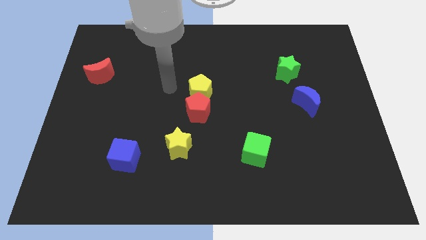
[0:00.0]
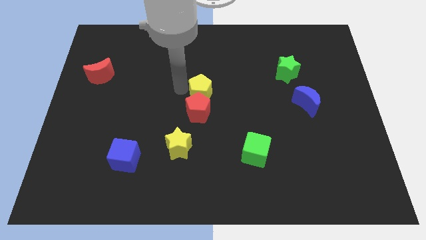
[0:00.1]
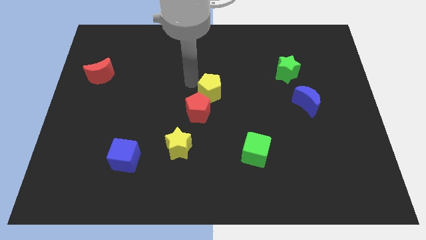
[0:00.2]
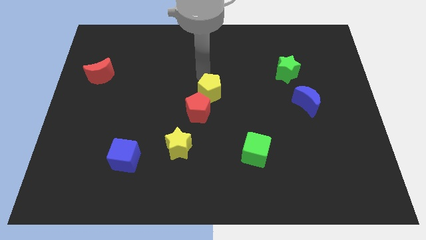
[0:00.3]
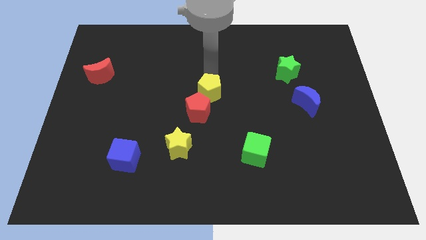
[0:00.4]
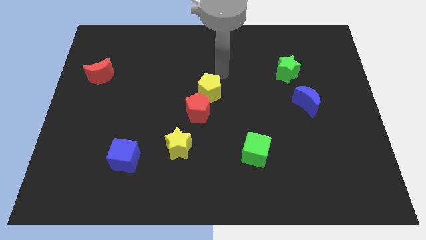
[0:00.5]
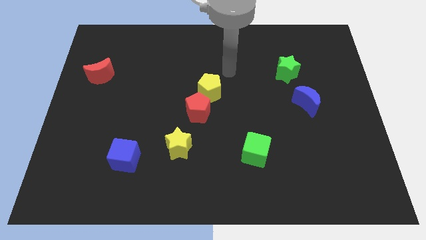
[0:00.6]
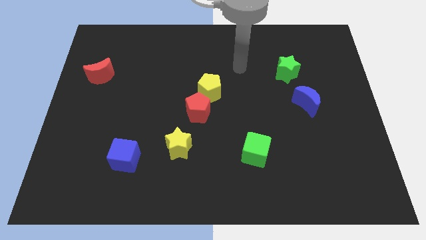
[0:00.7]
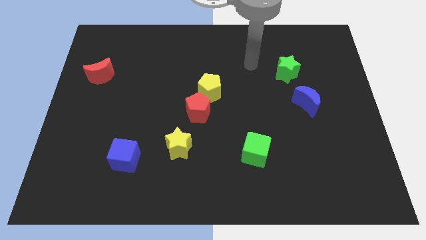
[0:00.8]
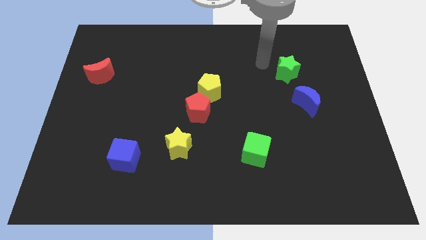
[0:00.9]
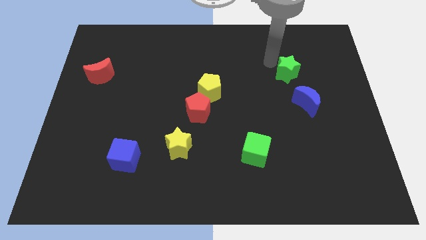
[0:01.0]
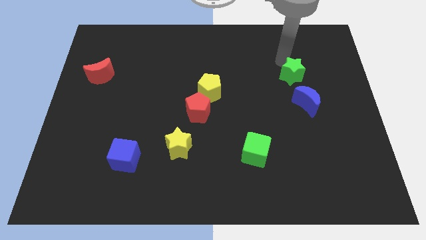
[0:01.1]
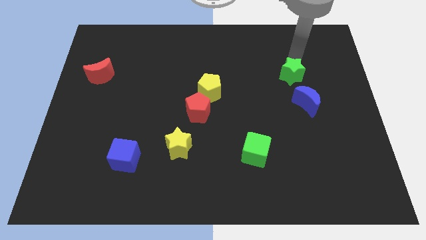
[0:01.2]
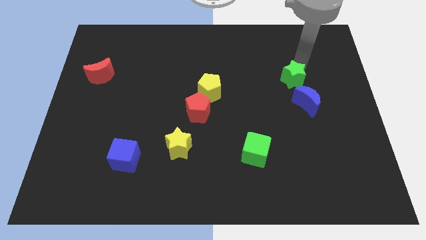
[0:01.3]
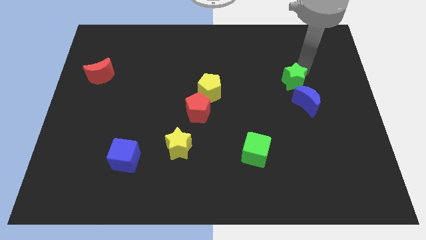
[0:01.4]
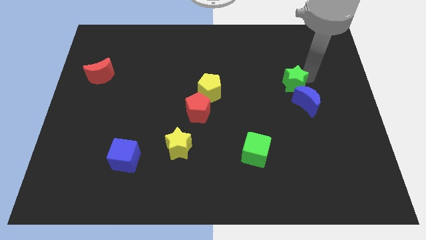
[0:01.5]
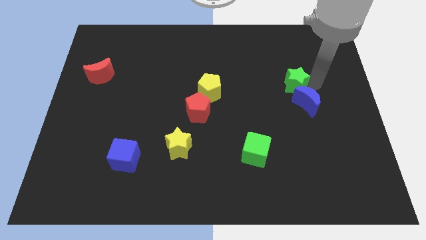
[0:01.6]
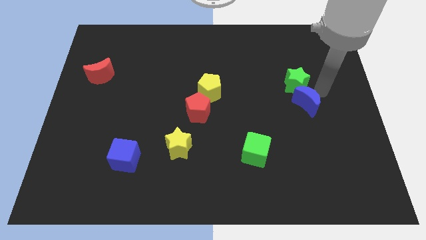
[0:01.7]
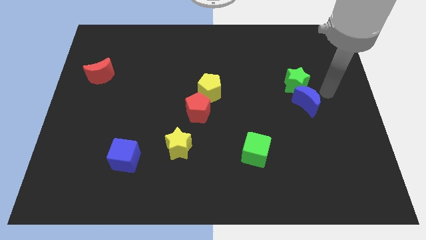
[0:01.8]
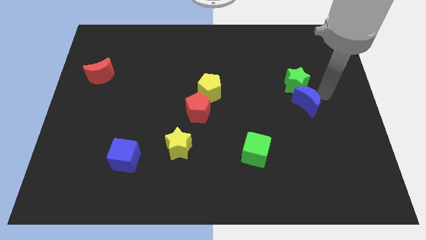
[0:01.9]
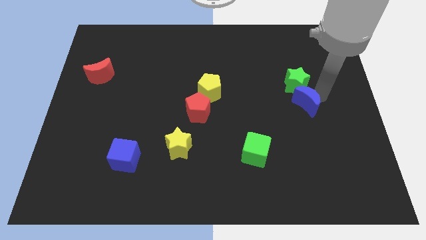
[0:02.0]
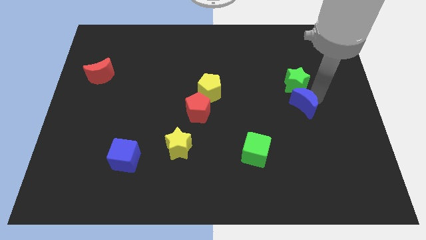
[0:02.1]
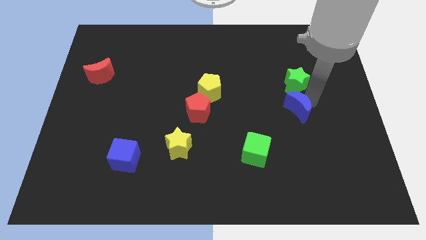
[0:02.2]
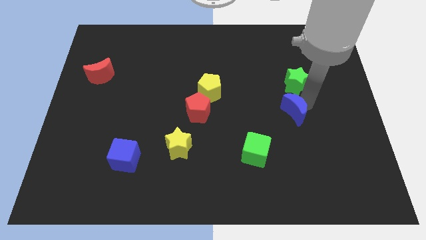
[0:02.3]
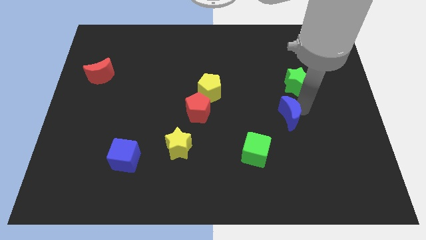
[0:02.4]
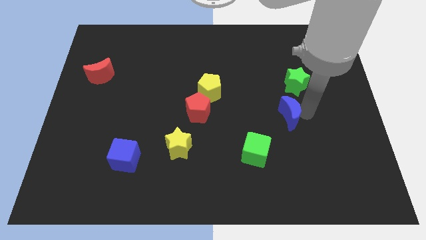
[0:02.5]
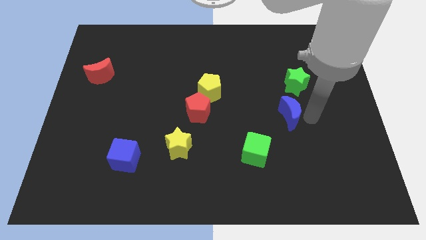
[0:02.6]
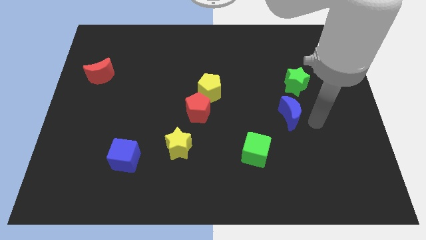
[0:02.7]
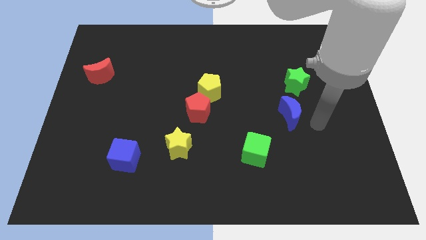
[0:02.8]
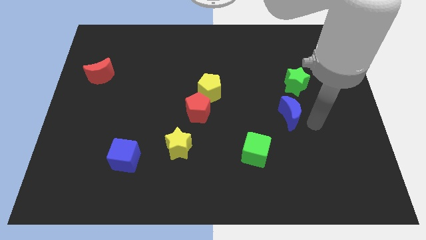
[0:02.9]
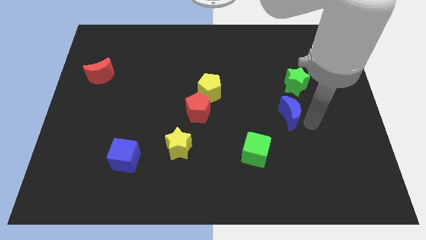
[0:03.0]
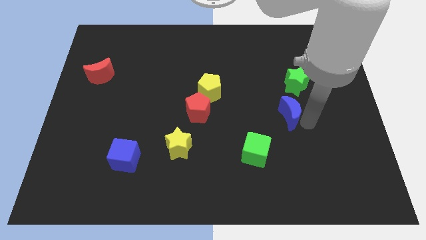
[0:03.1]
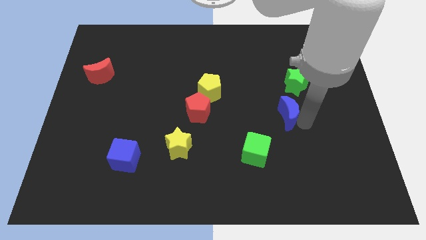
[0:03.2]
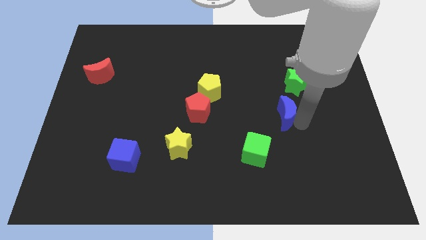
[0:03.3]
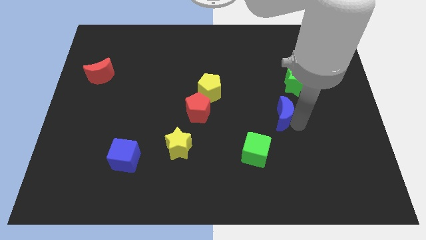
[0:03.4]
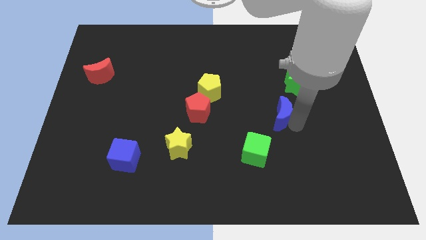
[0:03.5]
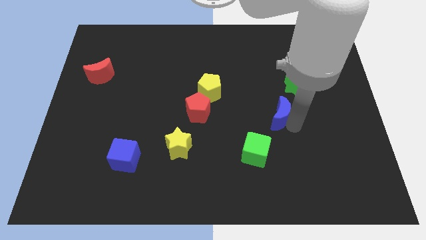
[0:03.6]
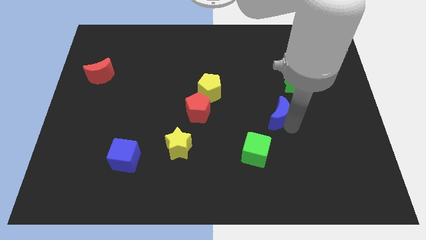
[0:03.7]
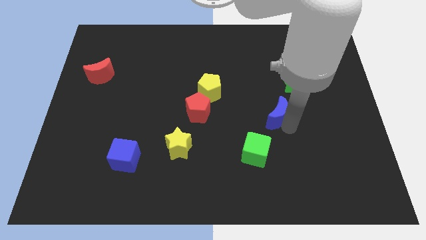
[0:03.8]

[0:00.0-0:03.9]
slide the blue moon slightly left

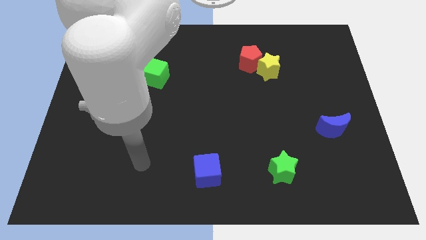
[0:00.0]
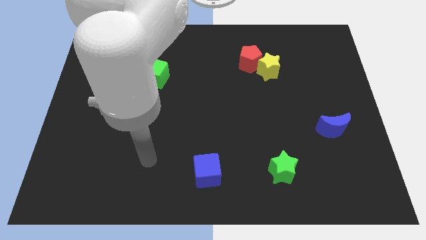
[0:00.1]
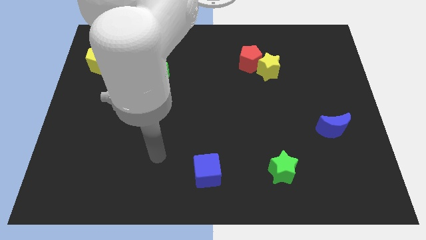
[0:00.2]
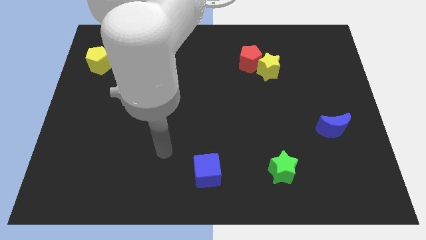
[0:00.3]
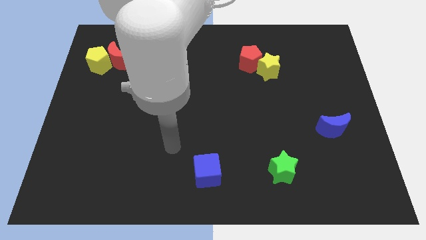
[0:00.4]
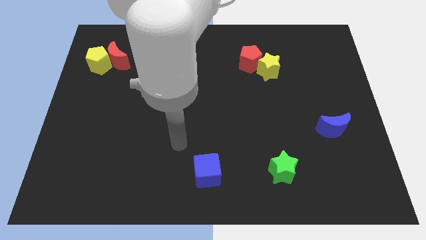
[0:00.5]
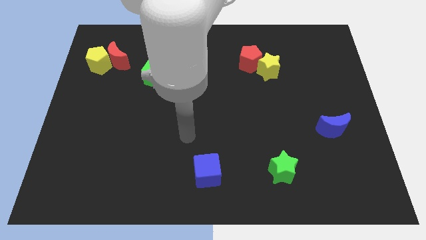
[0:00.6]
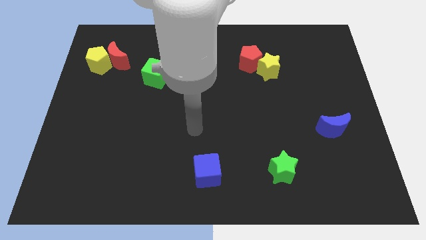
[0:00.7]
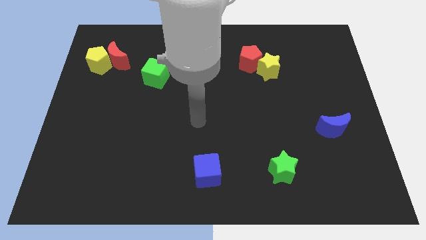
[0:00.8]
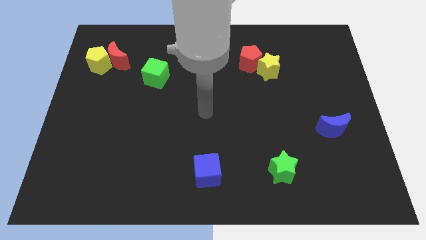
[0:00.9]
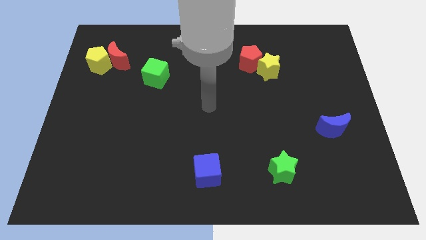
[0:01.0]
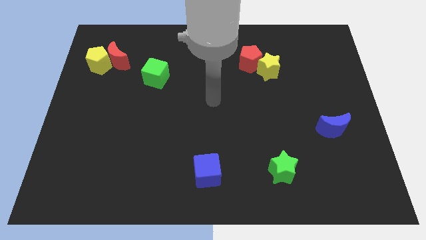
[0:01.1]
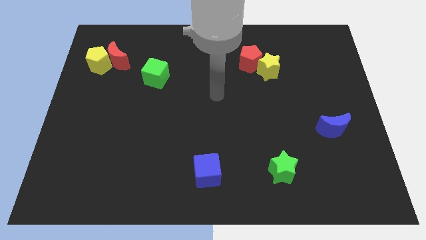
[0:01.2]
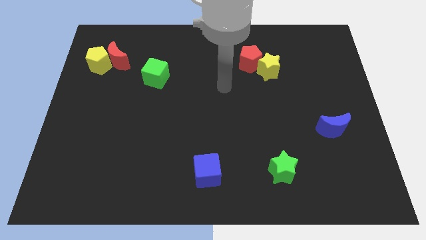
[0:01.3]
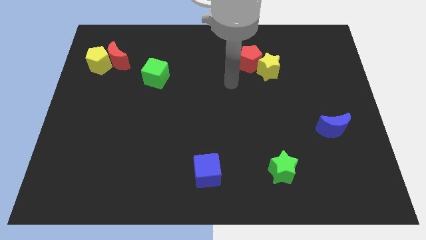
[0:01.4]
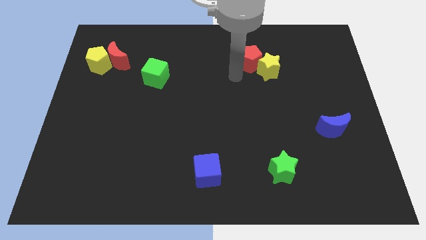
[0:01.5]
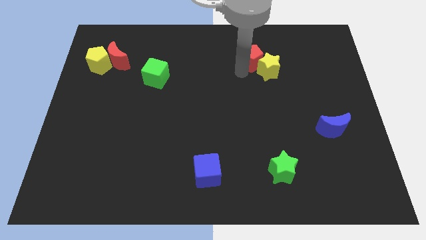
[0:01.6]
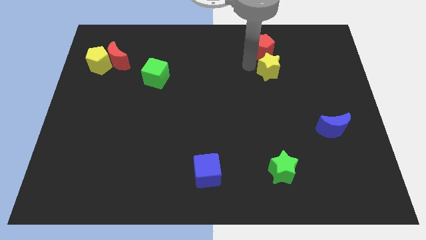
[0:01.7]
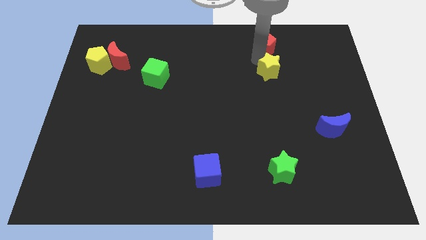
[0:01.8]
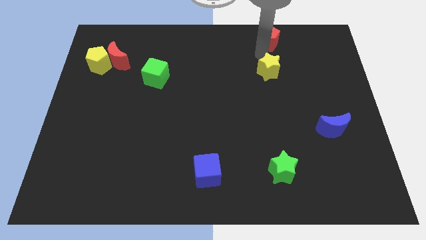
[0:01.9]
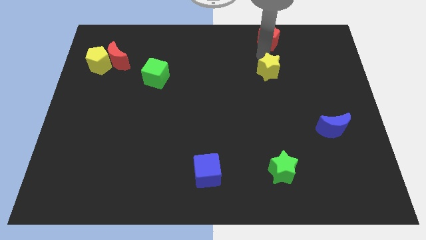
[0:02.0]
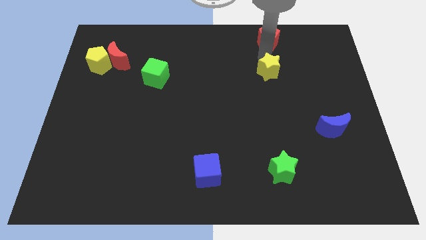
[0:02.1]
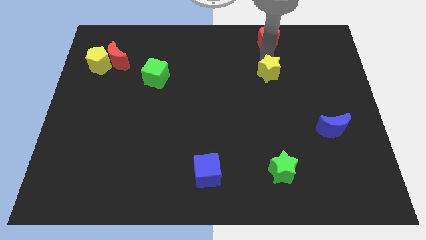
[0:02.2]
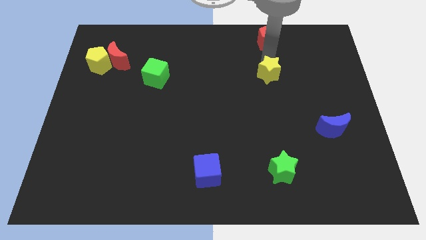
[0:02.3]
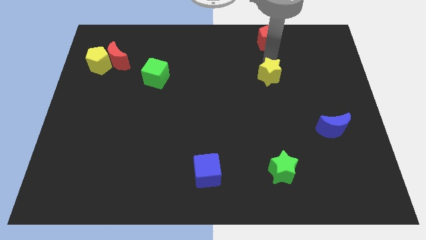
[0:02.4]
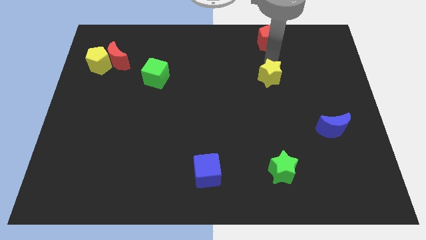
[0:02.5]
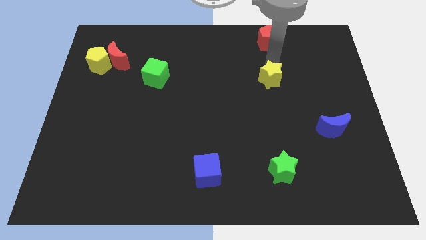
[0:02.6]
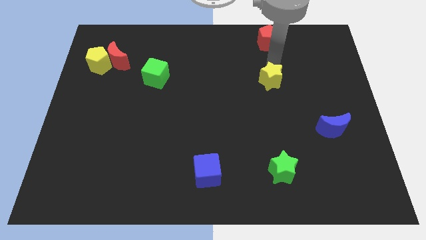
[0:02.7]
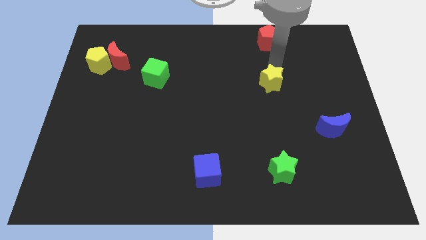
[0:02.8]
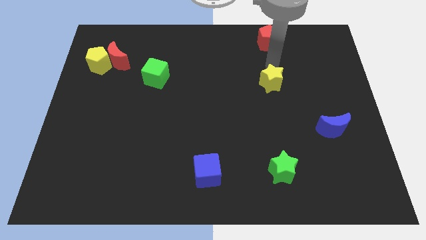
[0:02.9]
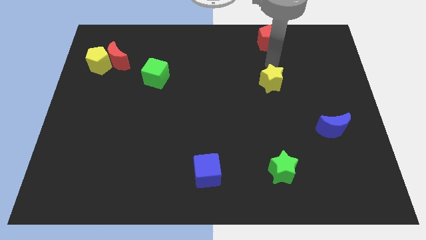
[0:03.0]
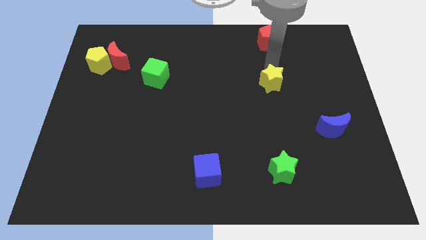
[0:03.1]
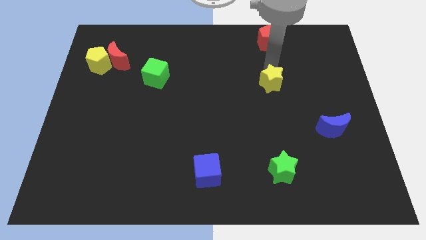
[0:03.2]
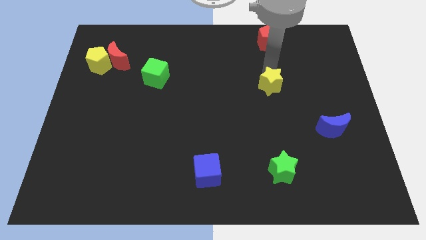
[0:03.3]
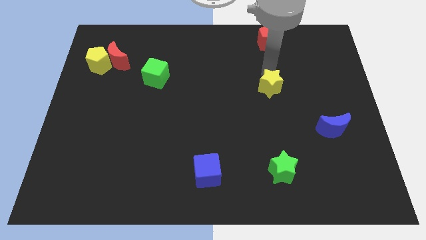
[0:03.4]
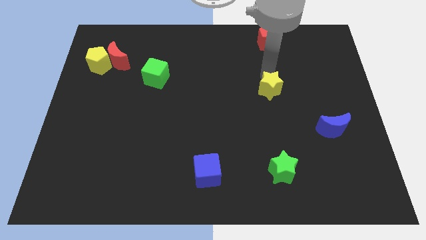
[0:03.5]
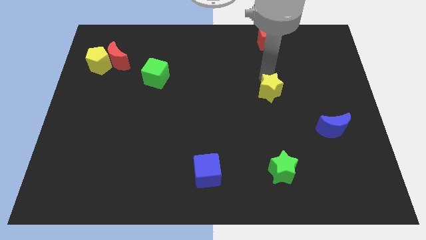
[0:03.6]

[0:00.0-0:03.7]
push the yellow star down a bit

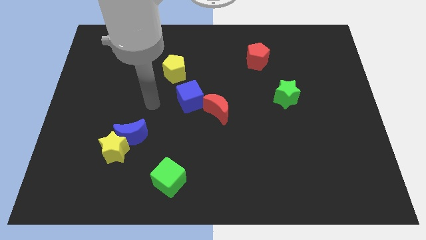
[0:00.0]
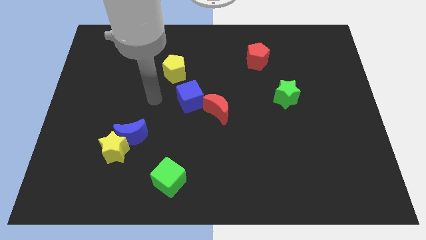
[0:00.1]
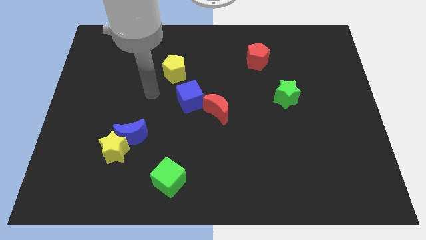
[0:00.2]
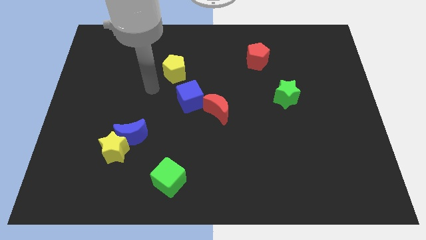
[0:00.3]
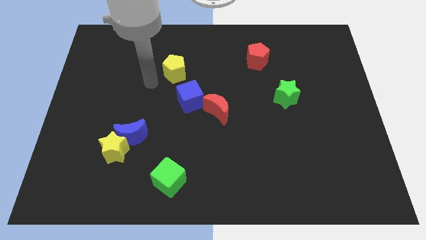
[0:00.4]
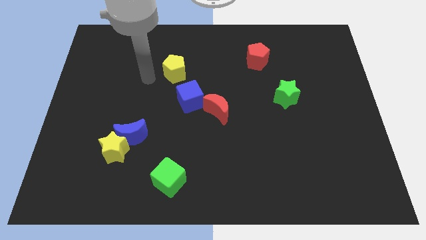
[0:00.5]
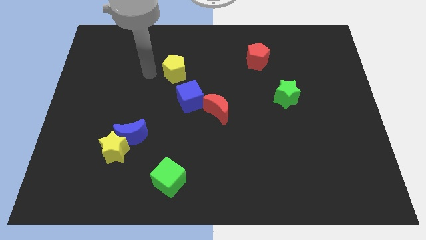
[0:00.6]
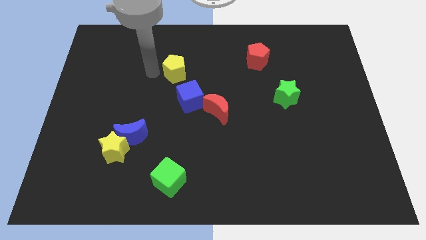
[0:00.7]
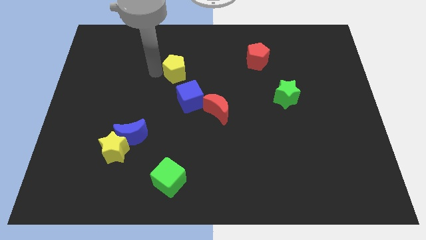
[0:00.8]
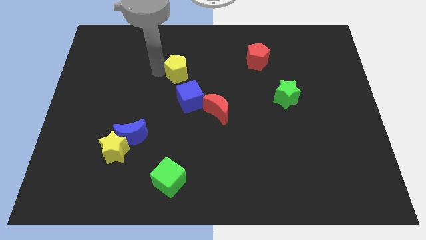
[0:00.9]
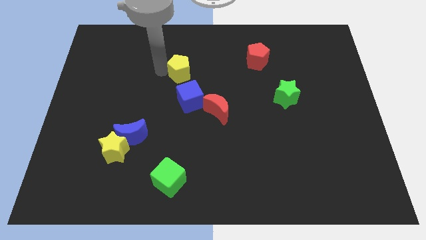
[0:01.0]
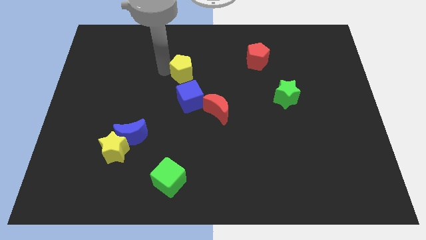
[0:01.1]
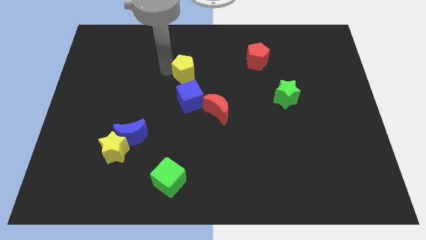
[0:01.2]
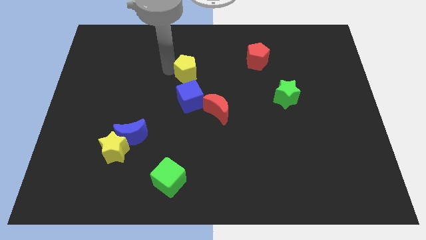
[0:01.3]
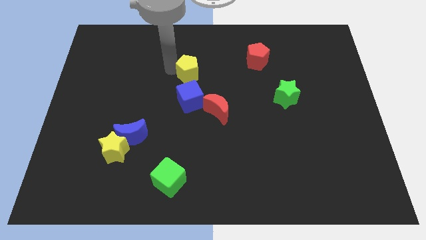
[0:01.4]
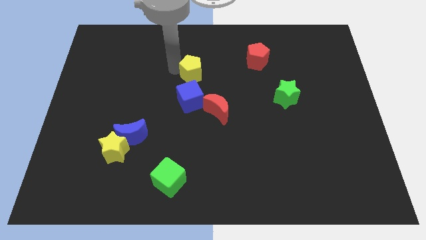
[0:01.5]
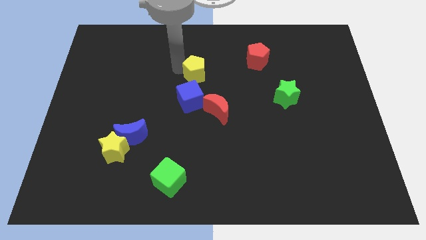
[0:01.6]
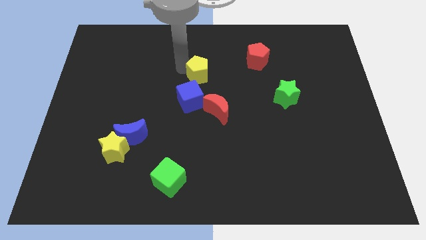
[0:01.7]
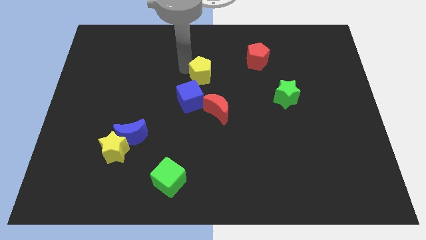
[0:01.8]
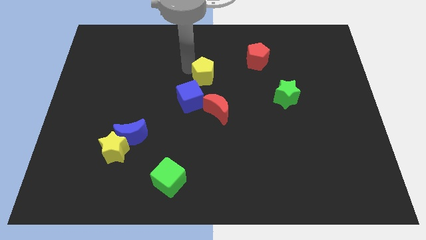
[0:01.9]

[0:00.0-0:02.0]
slightly move the yellow pentagon to the right
